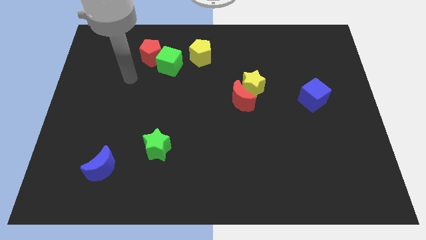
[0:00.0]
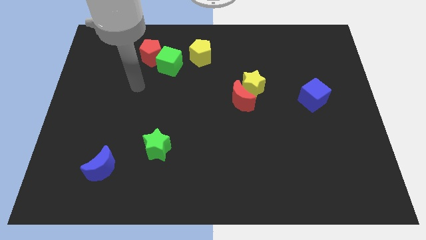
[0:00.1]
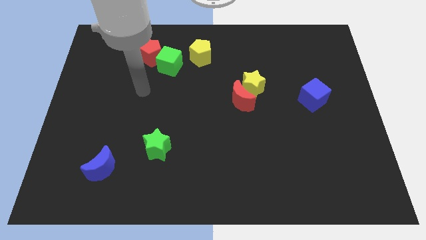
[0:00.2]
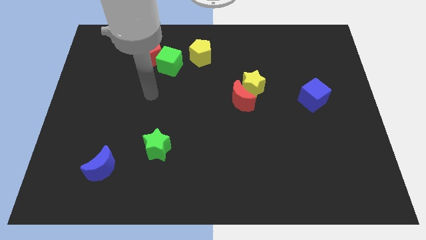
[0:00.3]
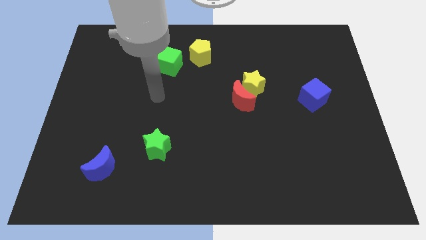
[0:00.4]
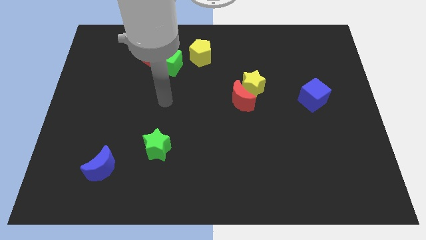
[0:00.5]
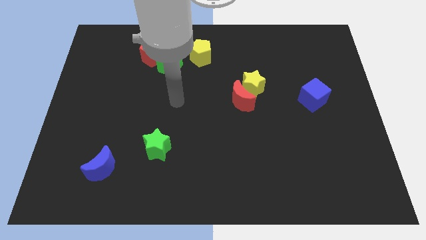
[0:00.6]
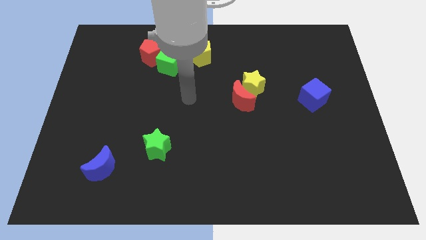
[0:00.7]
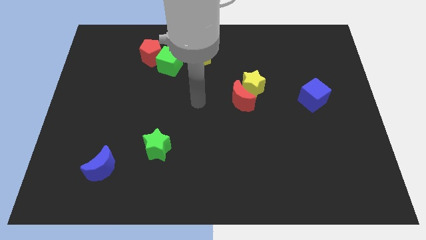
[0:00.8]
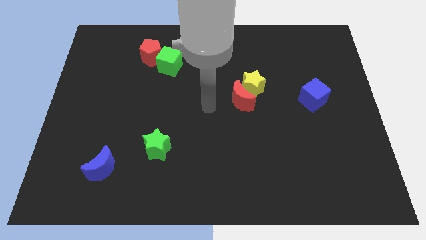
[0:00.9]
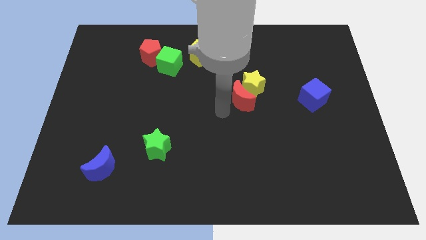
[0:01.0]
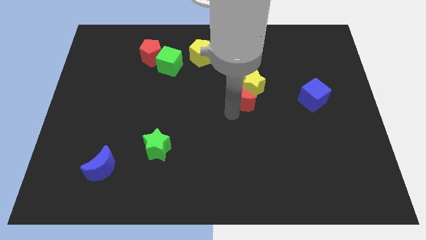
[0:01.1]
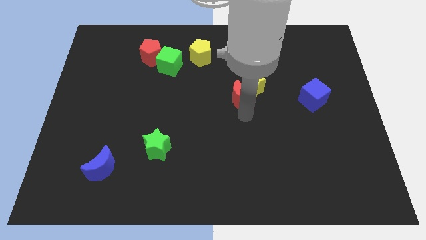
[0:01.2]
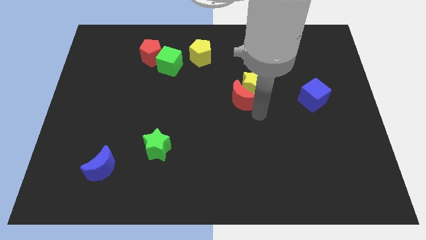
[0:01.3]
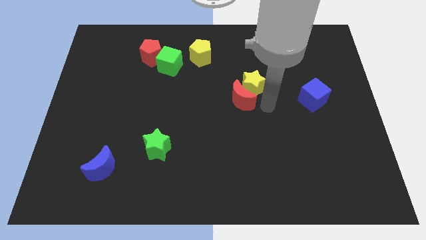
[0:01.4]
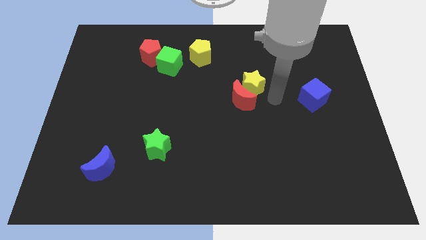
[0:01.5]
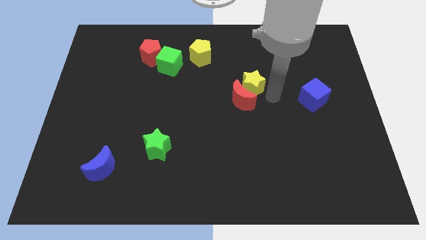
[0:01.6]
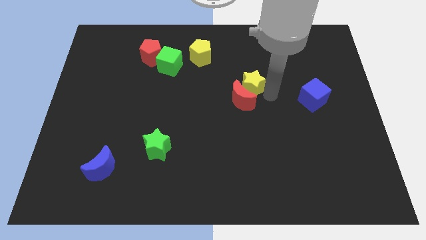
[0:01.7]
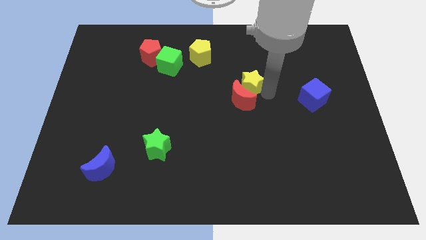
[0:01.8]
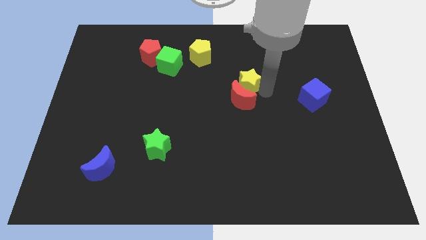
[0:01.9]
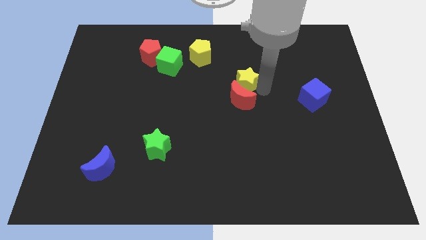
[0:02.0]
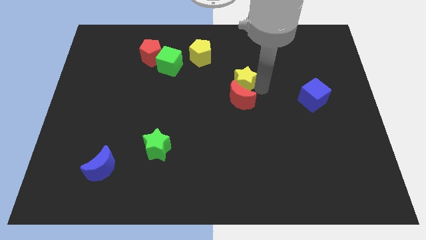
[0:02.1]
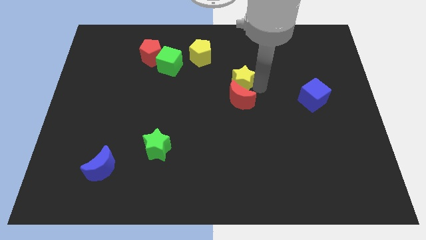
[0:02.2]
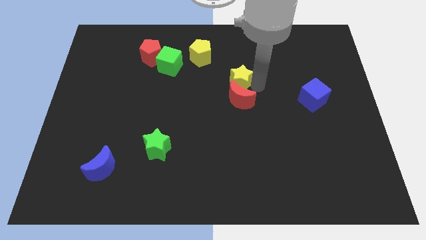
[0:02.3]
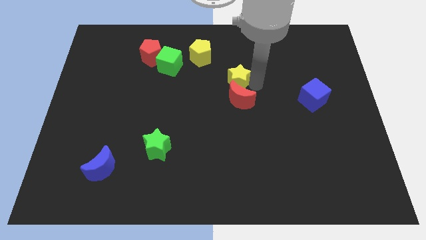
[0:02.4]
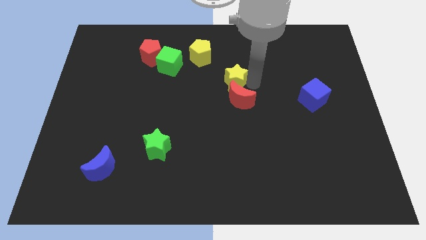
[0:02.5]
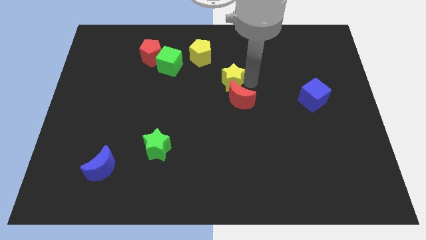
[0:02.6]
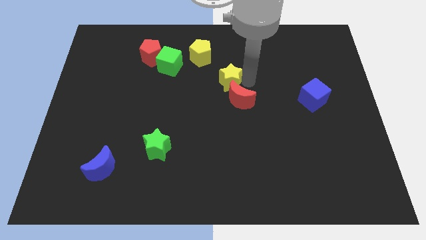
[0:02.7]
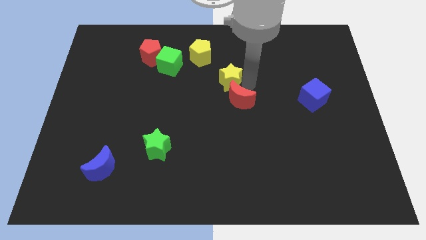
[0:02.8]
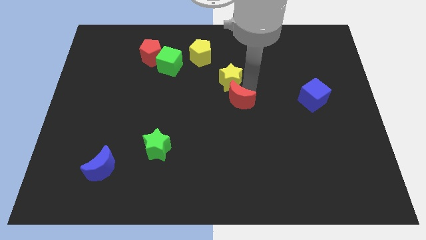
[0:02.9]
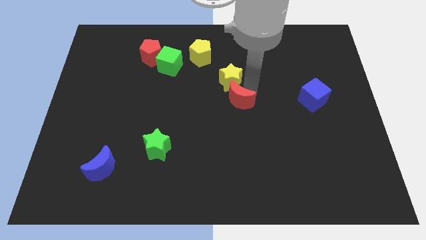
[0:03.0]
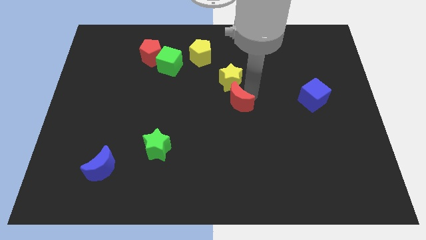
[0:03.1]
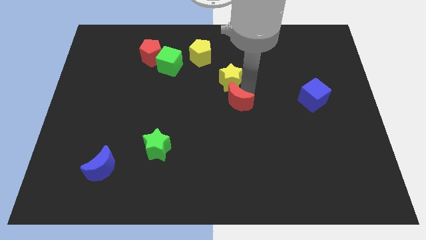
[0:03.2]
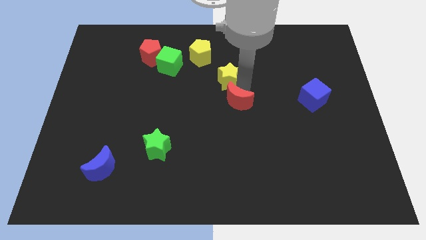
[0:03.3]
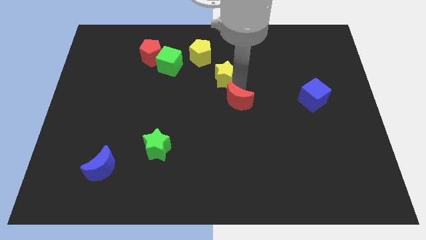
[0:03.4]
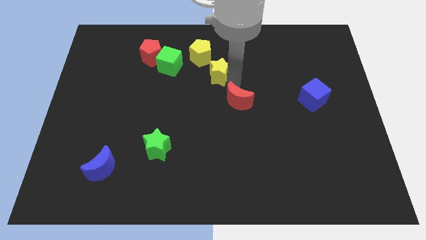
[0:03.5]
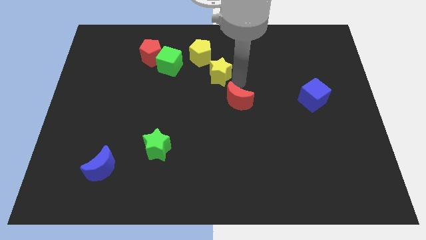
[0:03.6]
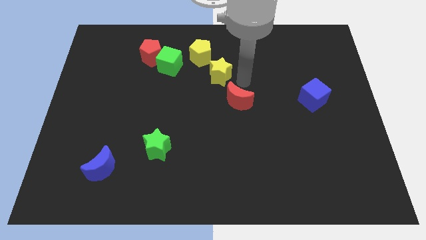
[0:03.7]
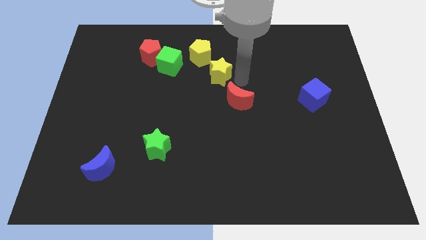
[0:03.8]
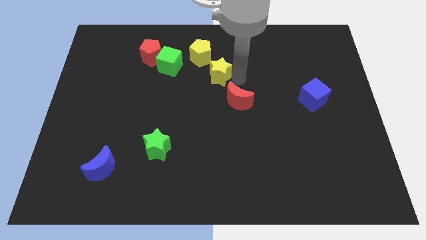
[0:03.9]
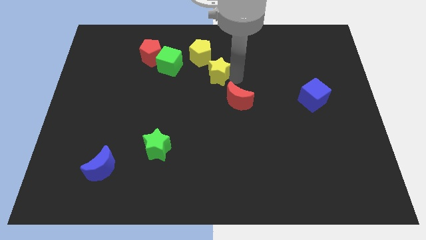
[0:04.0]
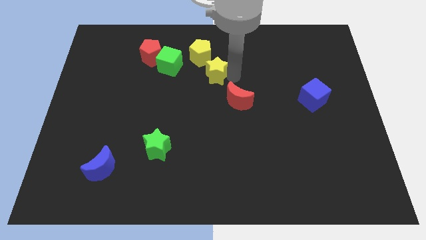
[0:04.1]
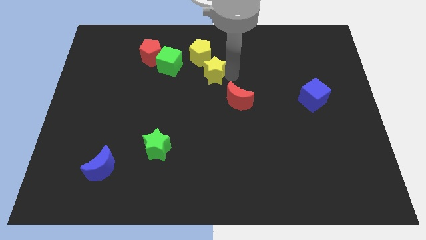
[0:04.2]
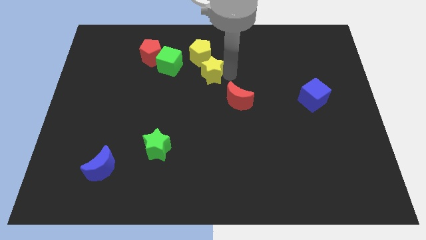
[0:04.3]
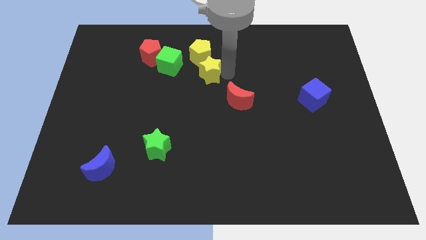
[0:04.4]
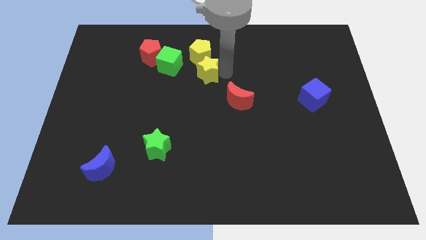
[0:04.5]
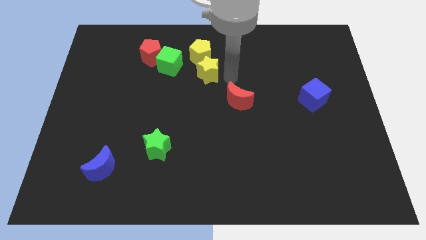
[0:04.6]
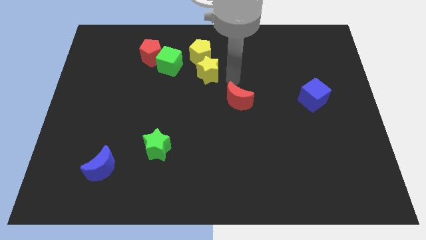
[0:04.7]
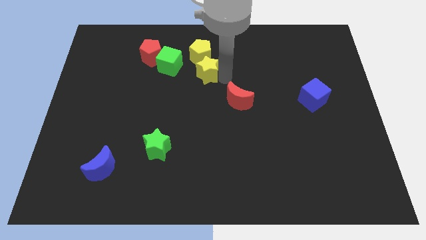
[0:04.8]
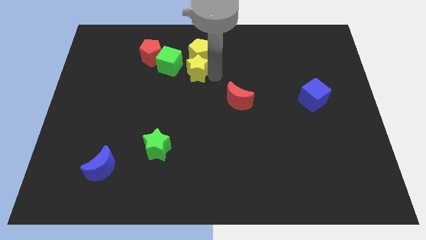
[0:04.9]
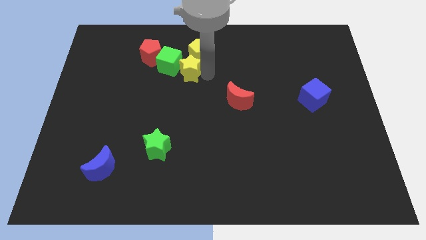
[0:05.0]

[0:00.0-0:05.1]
slide the yellow star to the green cube
